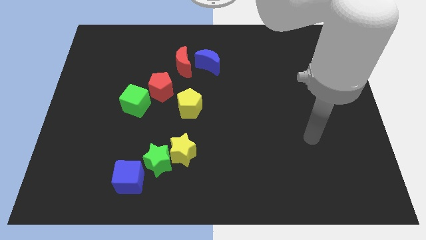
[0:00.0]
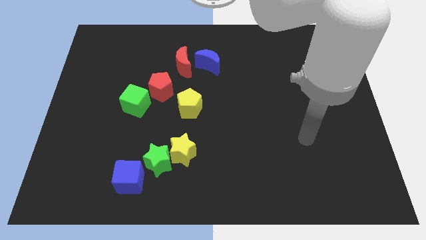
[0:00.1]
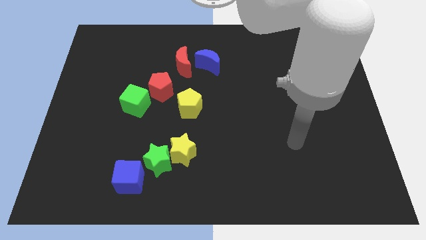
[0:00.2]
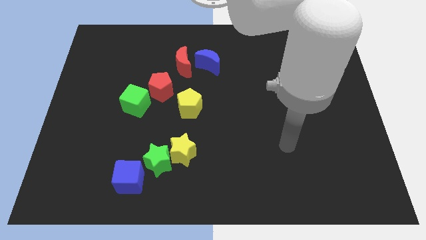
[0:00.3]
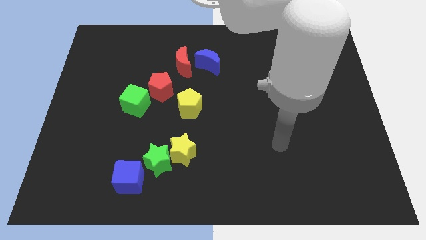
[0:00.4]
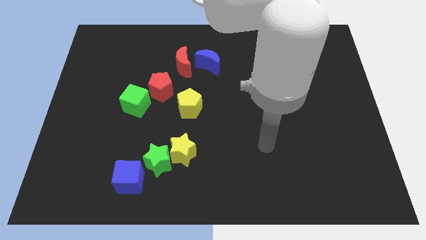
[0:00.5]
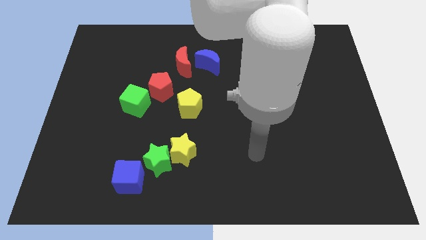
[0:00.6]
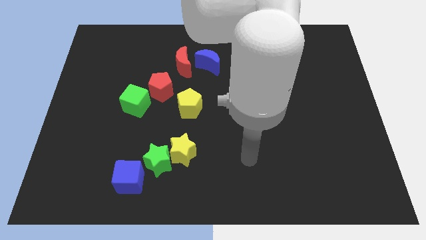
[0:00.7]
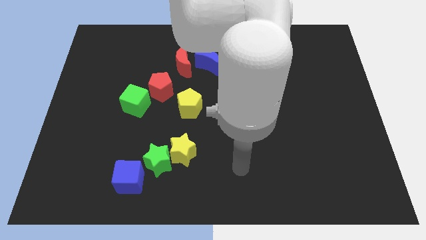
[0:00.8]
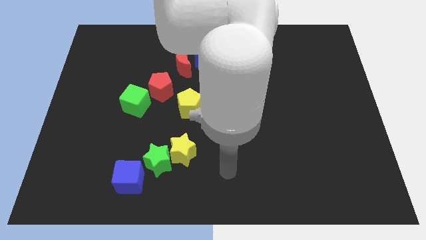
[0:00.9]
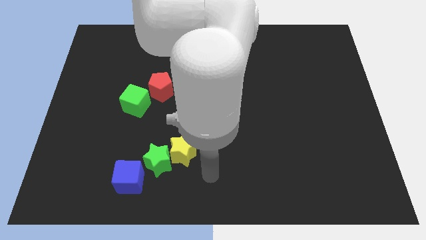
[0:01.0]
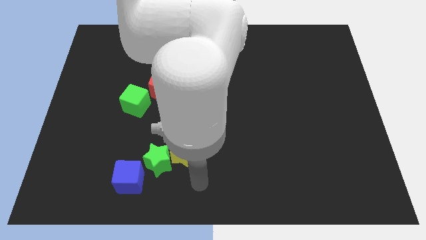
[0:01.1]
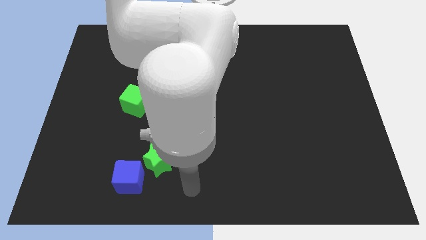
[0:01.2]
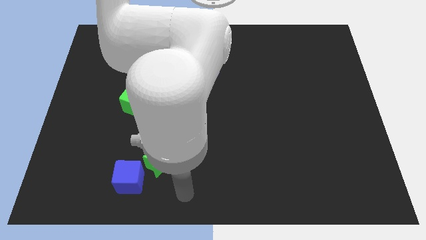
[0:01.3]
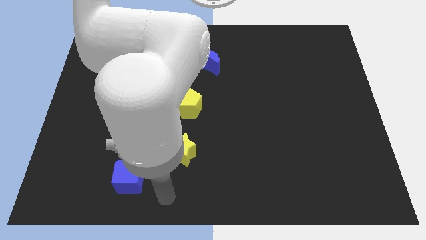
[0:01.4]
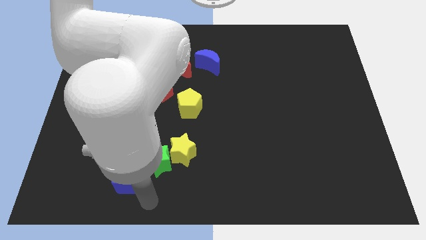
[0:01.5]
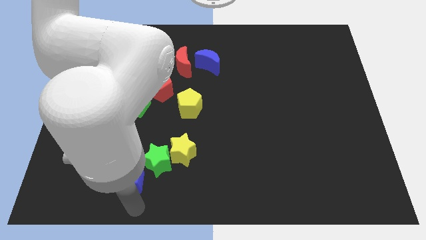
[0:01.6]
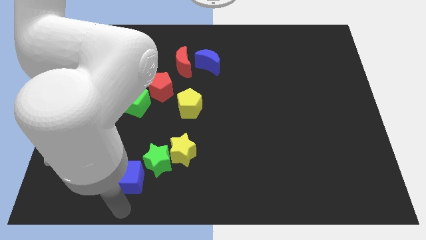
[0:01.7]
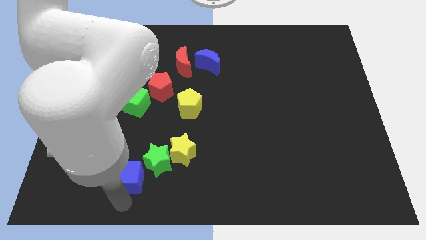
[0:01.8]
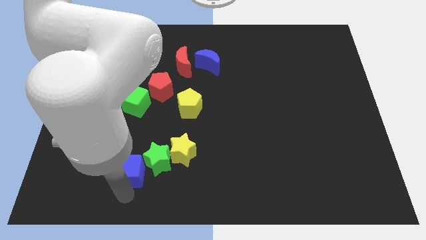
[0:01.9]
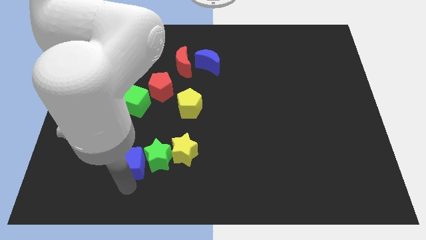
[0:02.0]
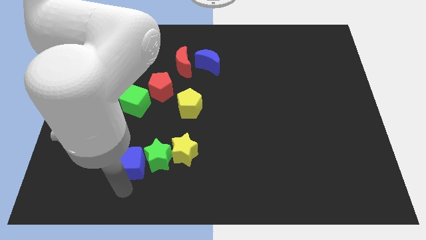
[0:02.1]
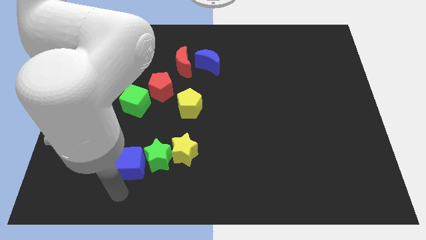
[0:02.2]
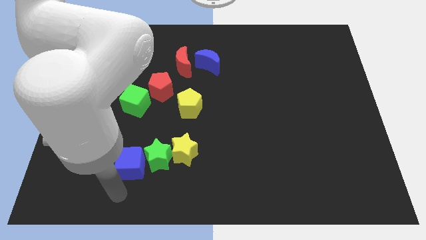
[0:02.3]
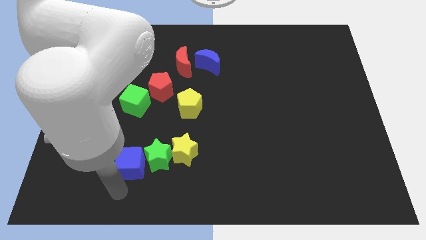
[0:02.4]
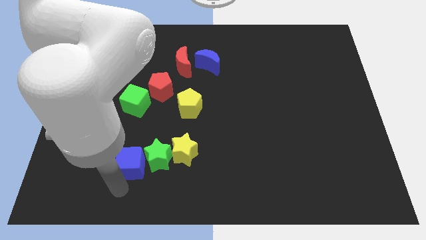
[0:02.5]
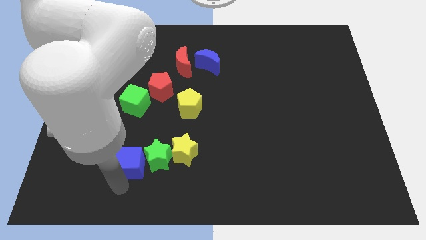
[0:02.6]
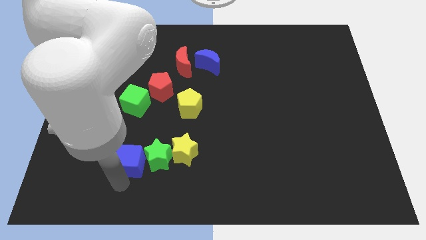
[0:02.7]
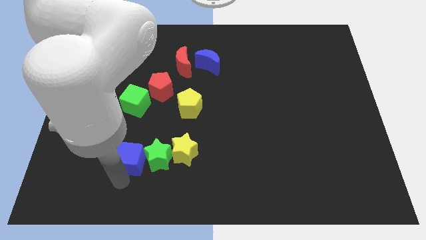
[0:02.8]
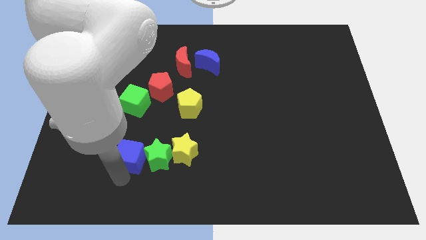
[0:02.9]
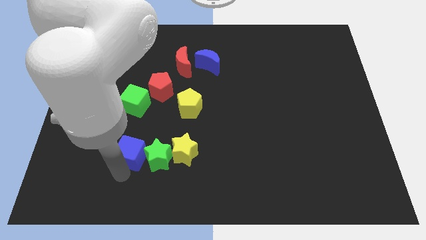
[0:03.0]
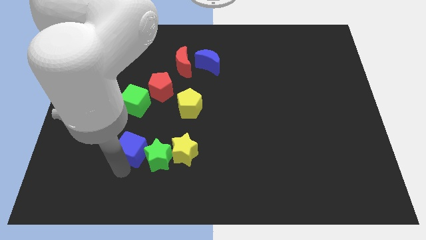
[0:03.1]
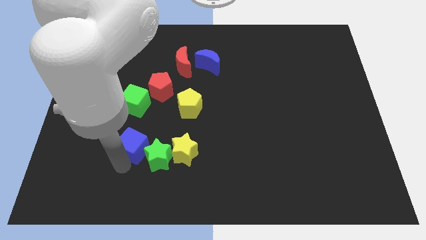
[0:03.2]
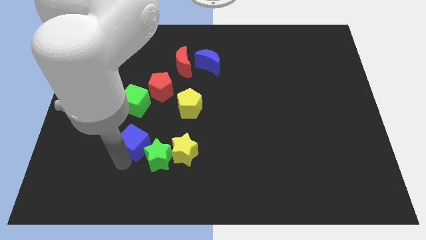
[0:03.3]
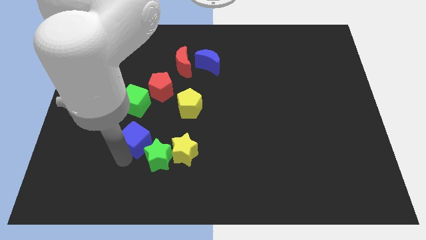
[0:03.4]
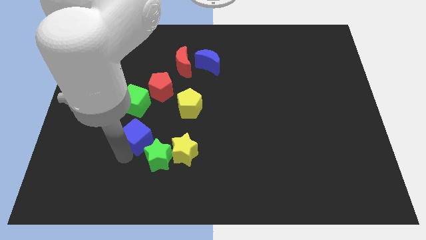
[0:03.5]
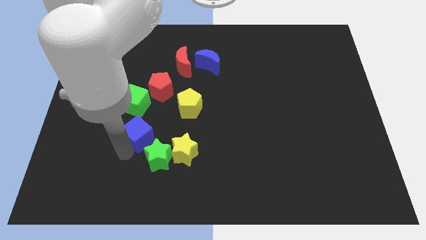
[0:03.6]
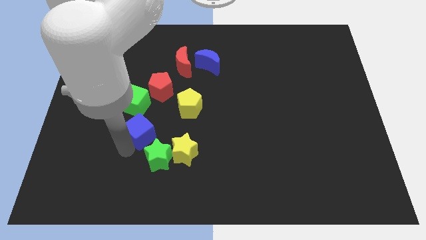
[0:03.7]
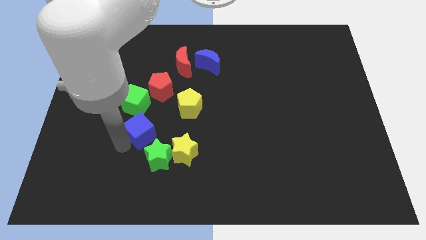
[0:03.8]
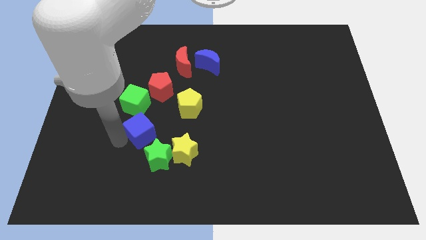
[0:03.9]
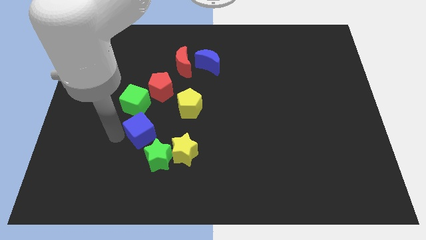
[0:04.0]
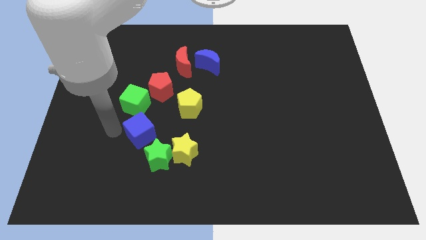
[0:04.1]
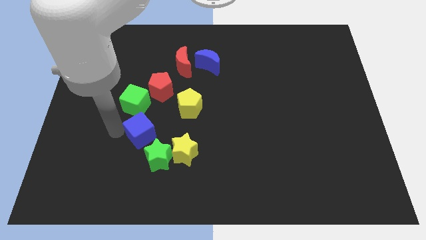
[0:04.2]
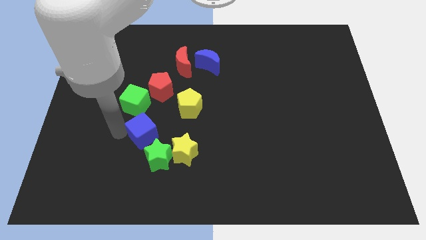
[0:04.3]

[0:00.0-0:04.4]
slightly move the blue cube diagonally upwards and right

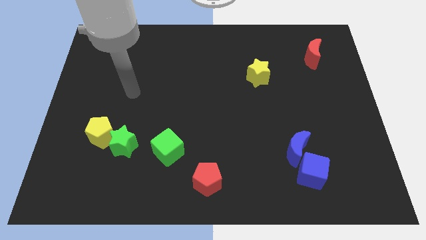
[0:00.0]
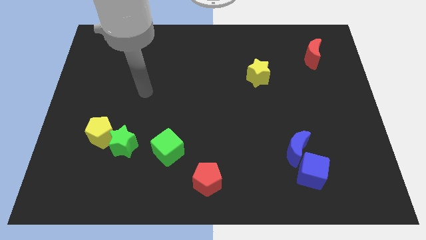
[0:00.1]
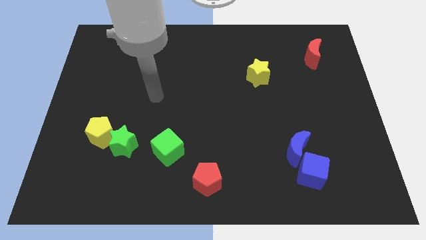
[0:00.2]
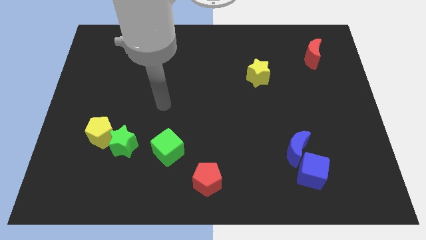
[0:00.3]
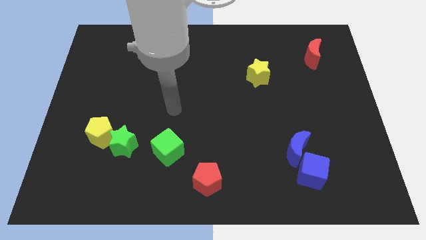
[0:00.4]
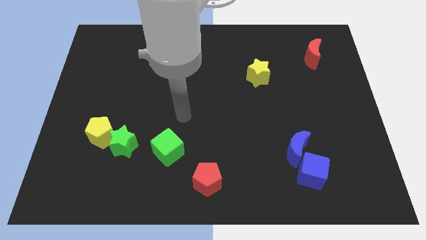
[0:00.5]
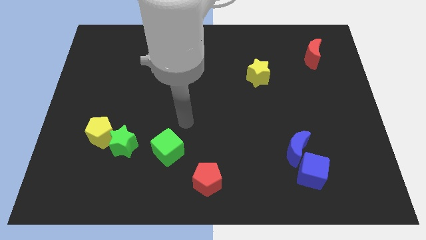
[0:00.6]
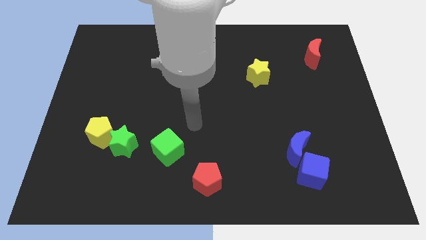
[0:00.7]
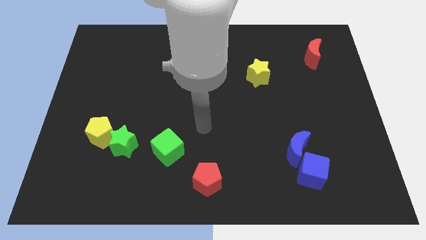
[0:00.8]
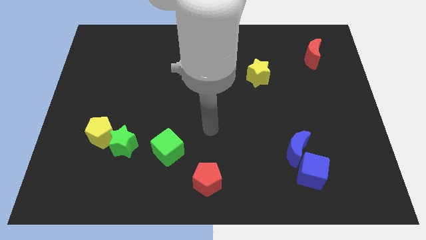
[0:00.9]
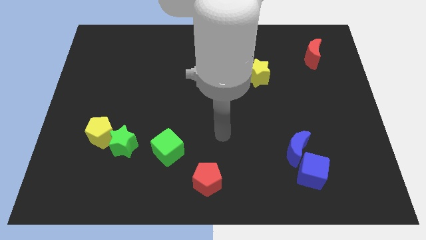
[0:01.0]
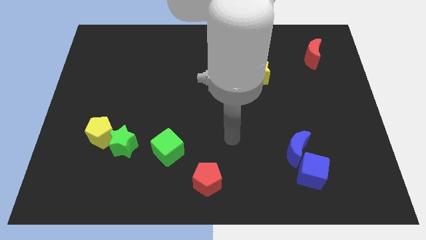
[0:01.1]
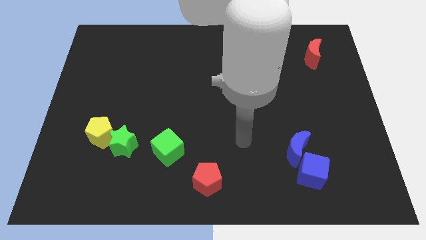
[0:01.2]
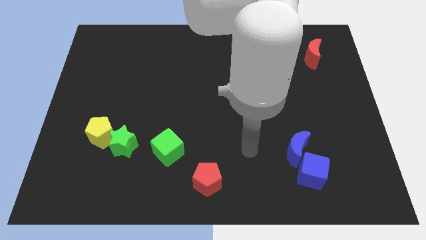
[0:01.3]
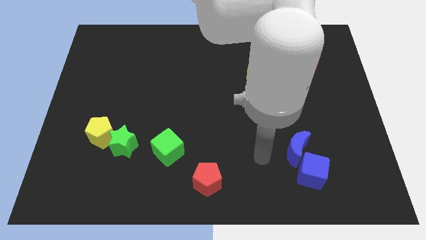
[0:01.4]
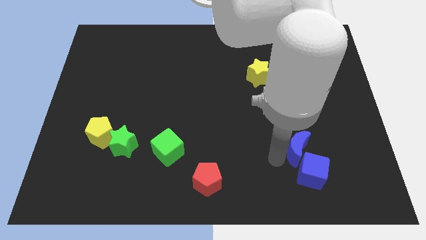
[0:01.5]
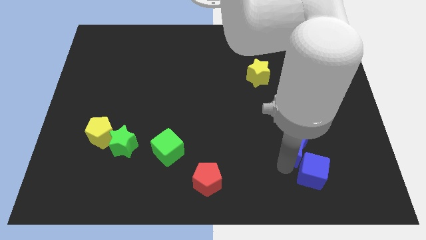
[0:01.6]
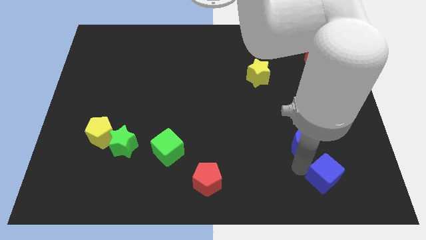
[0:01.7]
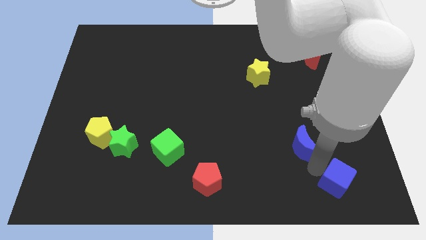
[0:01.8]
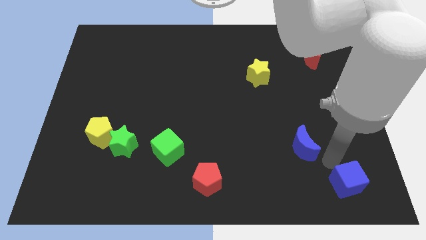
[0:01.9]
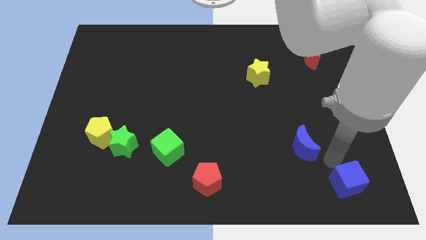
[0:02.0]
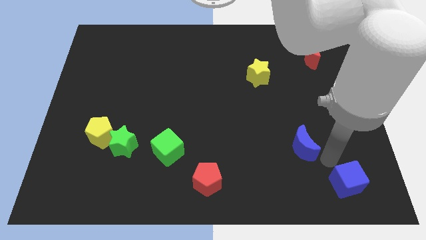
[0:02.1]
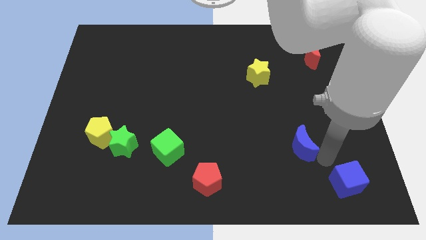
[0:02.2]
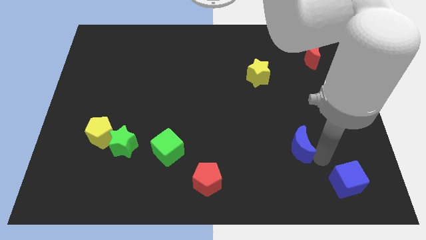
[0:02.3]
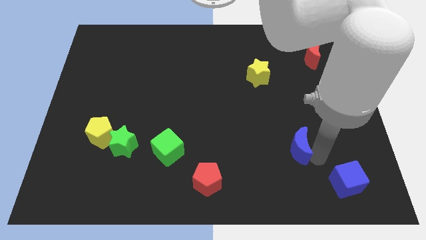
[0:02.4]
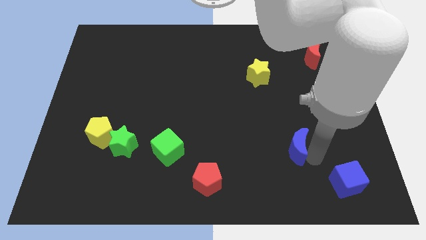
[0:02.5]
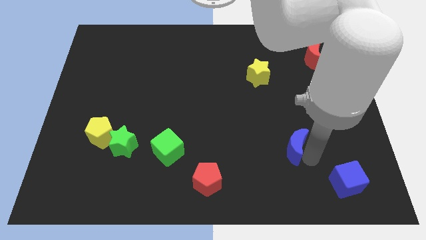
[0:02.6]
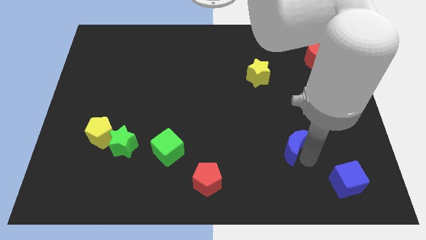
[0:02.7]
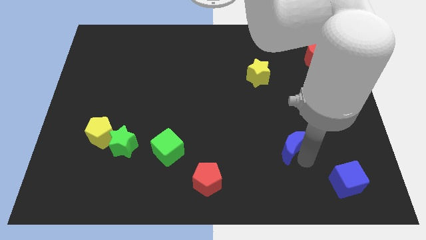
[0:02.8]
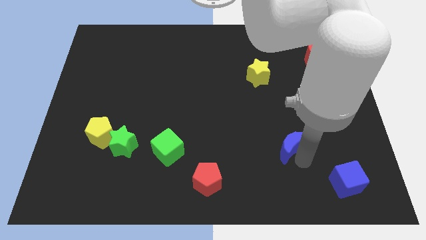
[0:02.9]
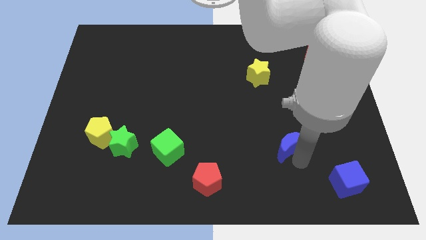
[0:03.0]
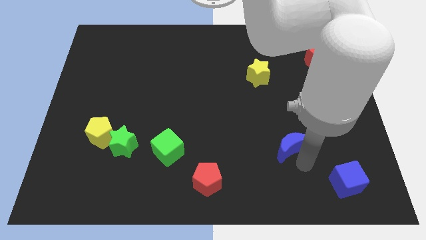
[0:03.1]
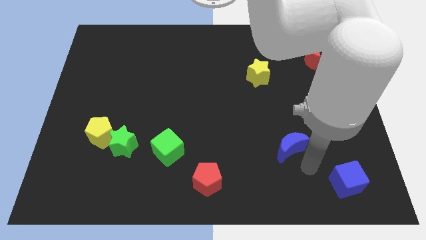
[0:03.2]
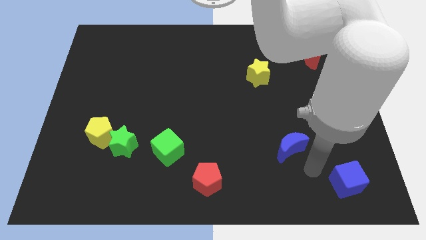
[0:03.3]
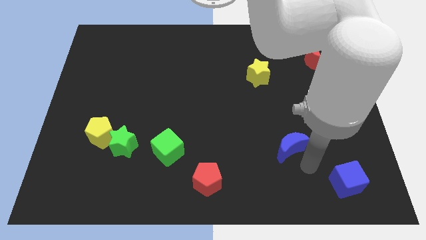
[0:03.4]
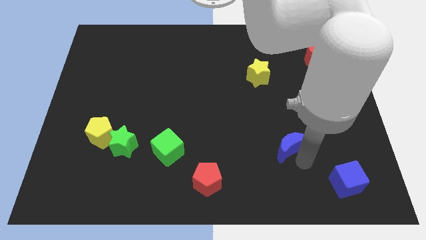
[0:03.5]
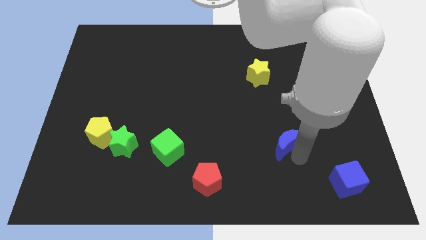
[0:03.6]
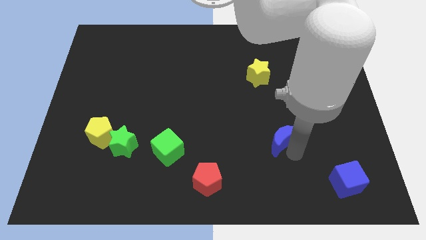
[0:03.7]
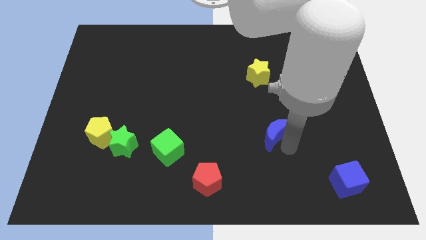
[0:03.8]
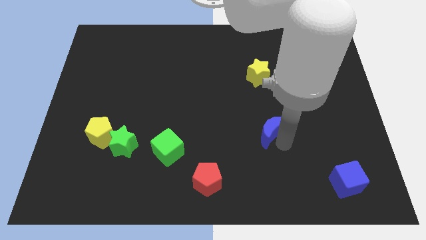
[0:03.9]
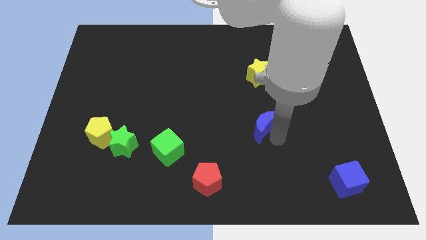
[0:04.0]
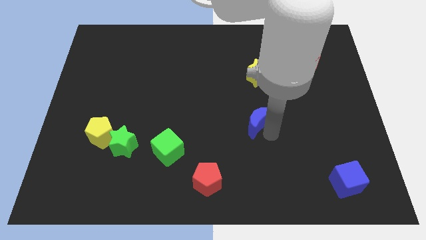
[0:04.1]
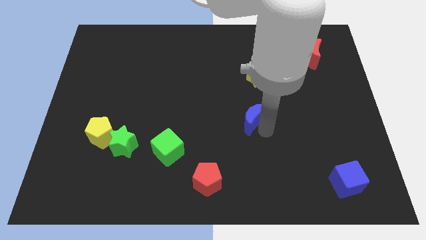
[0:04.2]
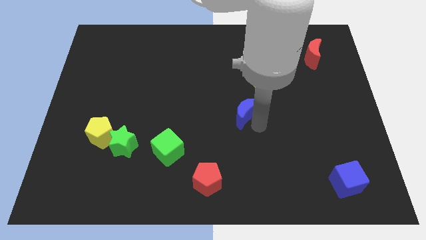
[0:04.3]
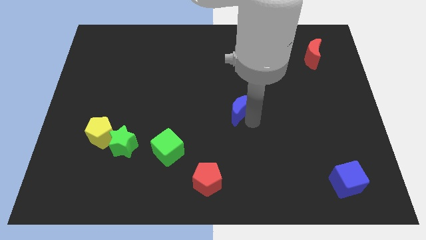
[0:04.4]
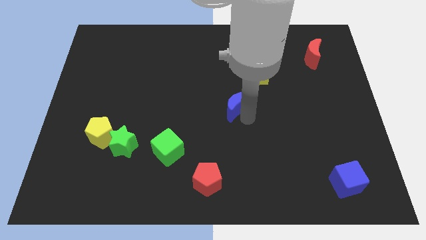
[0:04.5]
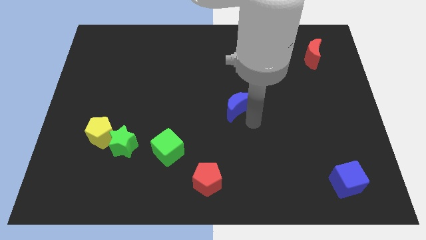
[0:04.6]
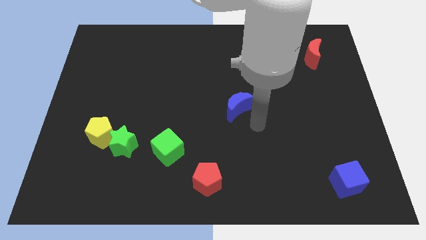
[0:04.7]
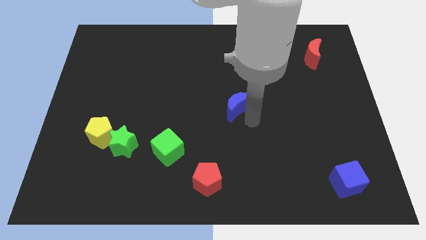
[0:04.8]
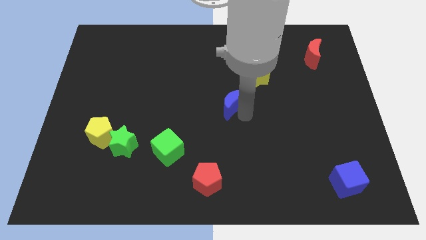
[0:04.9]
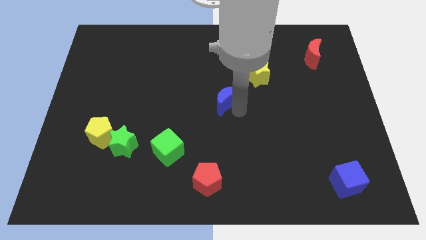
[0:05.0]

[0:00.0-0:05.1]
push the blue moon up and then to the left
